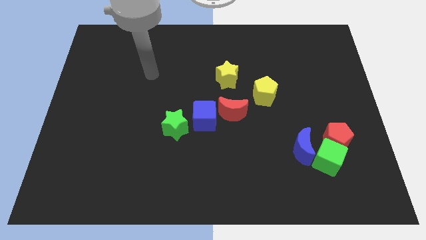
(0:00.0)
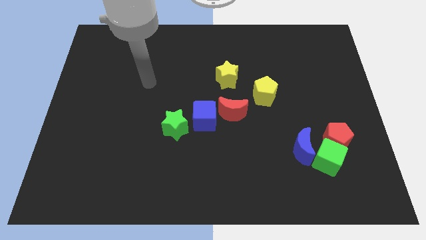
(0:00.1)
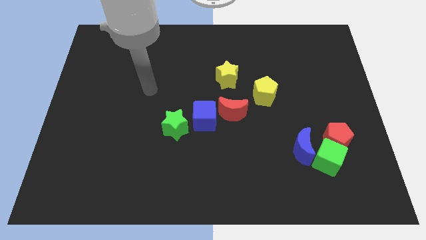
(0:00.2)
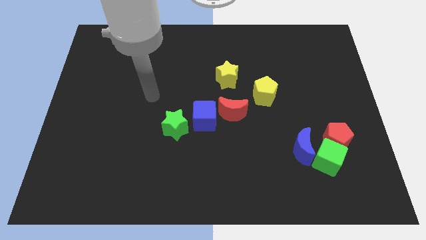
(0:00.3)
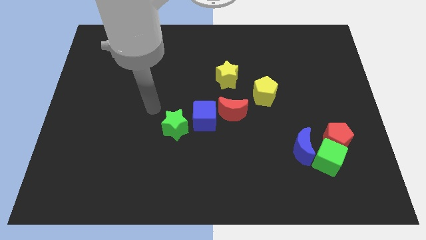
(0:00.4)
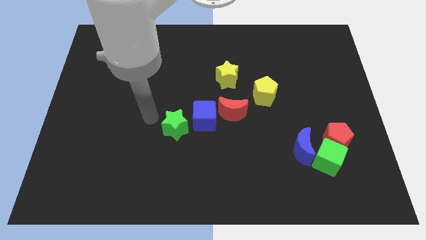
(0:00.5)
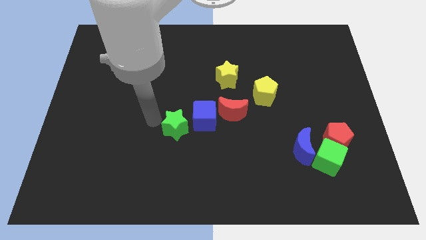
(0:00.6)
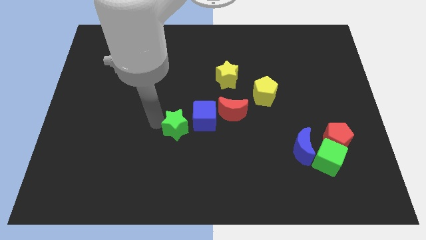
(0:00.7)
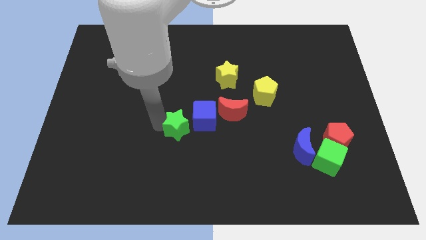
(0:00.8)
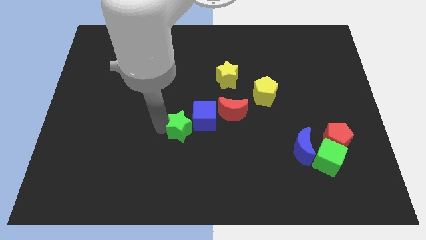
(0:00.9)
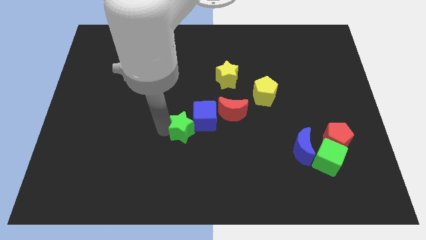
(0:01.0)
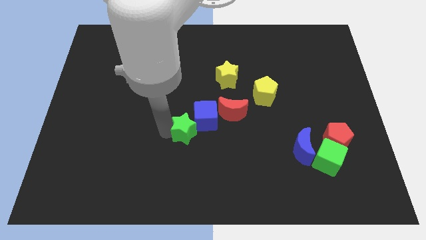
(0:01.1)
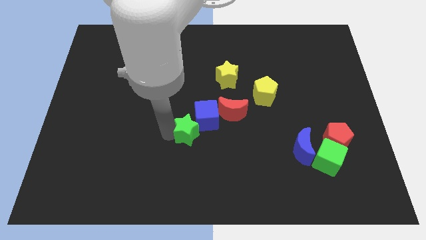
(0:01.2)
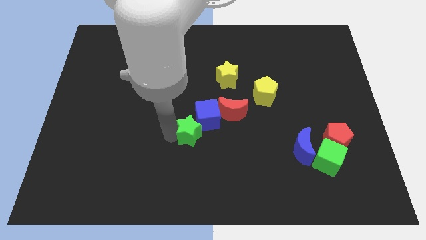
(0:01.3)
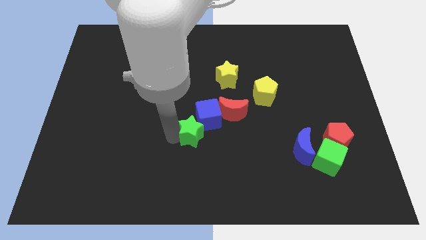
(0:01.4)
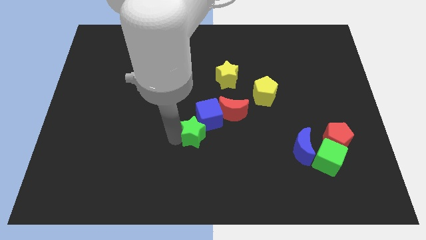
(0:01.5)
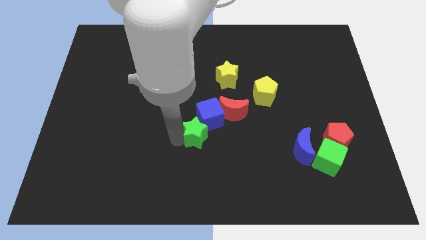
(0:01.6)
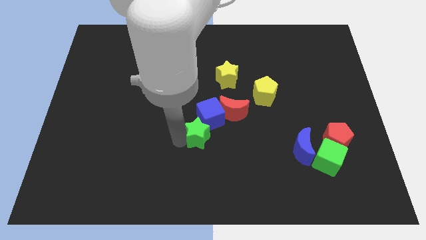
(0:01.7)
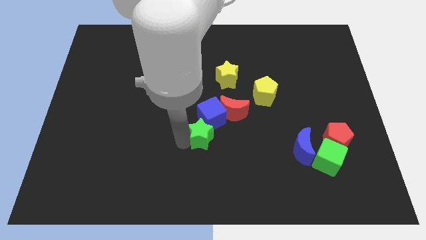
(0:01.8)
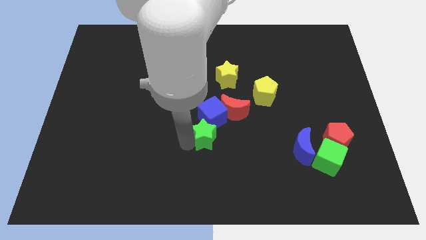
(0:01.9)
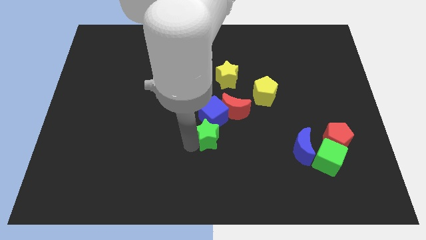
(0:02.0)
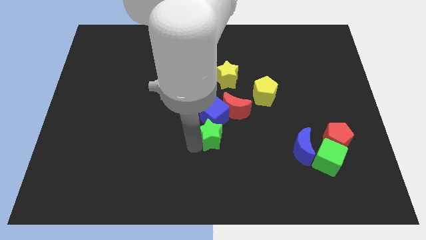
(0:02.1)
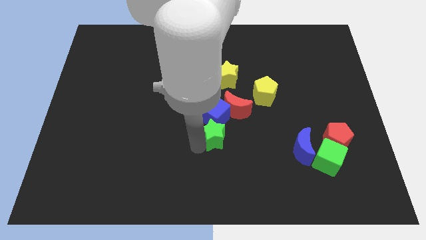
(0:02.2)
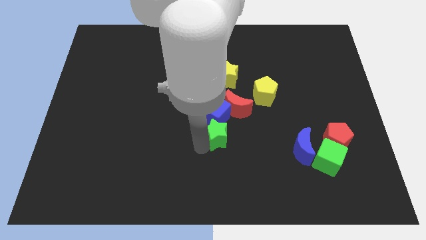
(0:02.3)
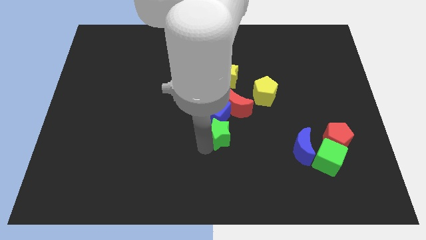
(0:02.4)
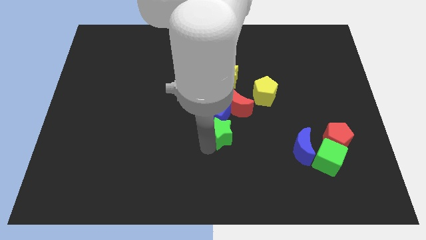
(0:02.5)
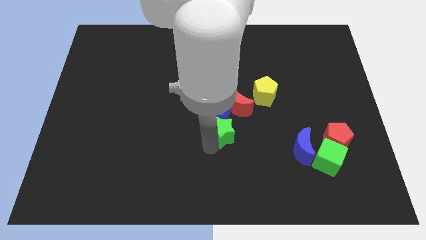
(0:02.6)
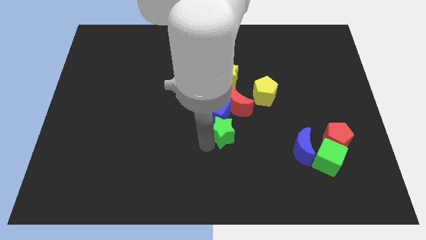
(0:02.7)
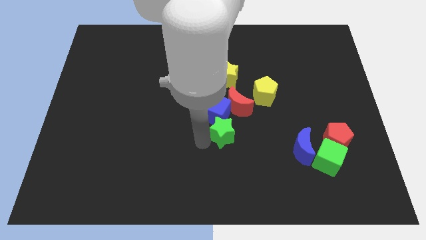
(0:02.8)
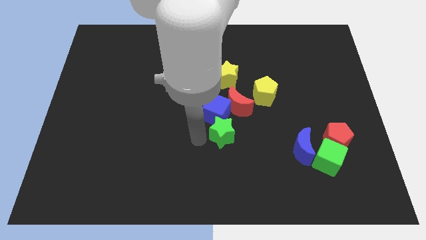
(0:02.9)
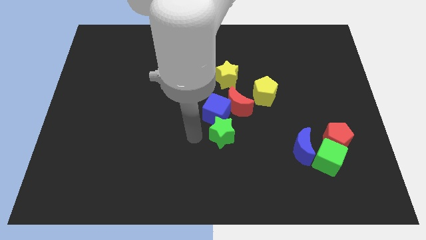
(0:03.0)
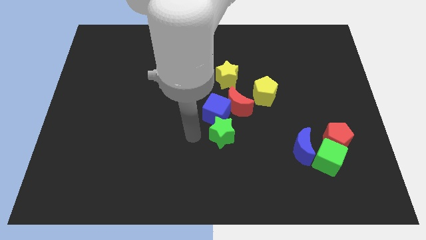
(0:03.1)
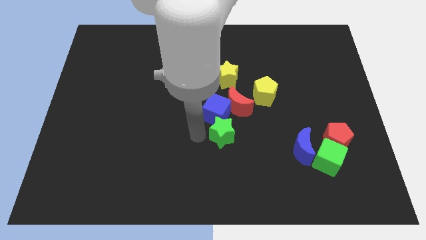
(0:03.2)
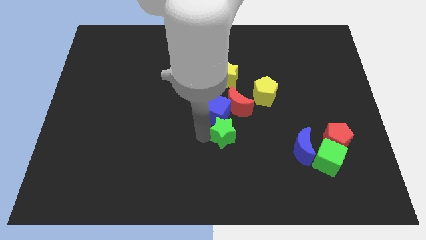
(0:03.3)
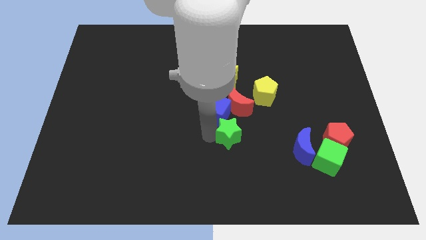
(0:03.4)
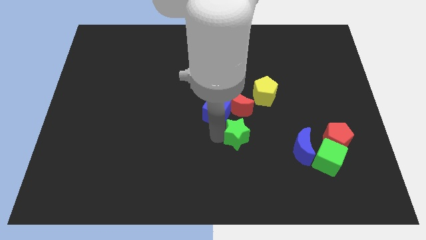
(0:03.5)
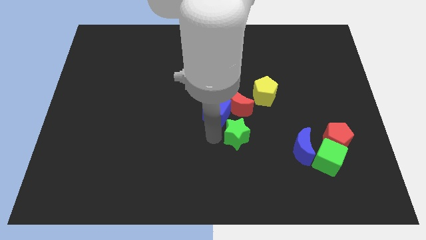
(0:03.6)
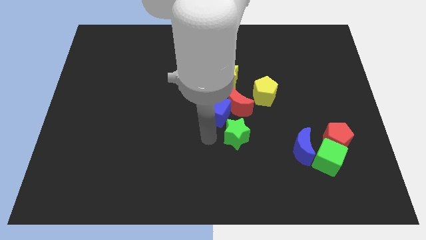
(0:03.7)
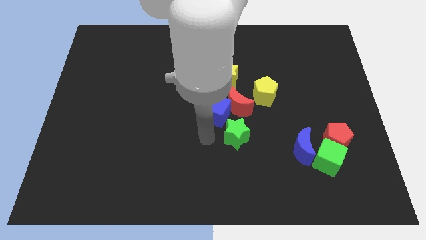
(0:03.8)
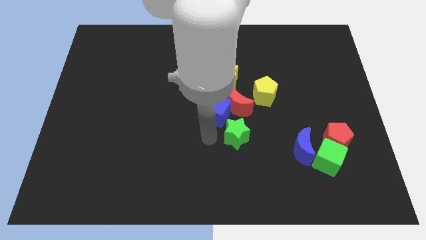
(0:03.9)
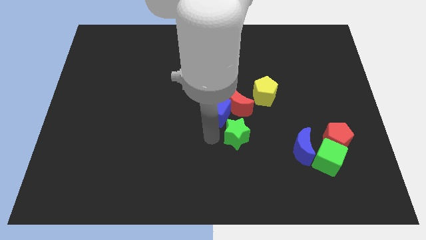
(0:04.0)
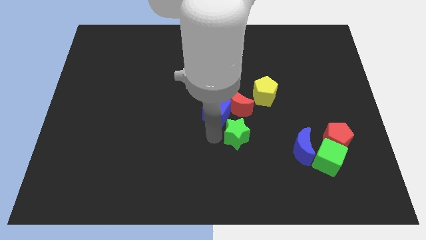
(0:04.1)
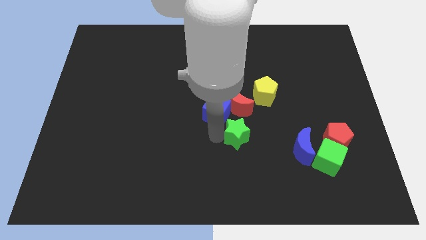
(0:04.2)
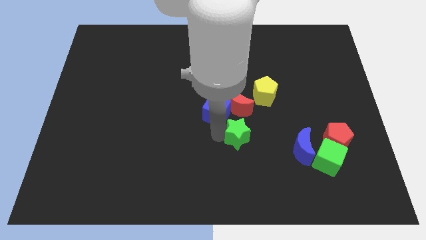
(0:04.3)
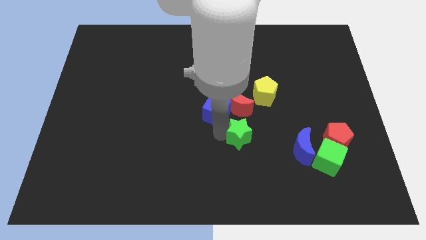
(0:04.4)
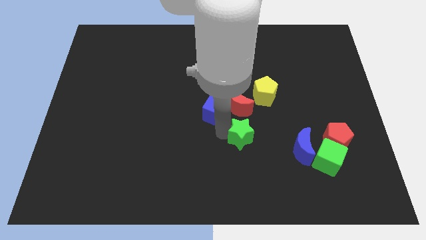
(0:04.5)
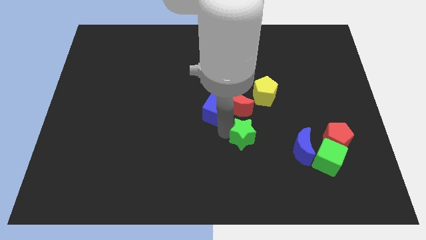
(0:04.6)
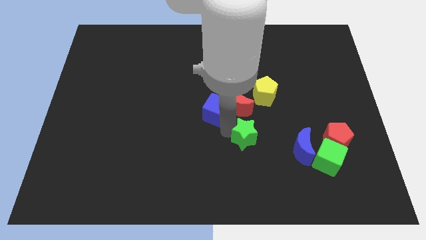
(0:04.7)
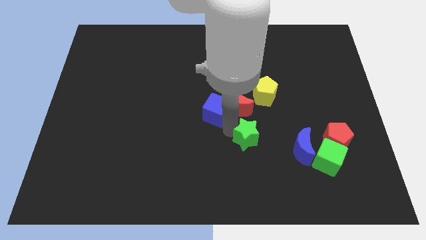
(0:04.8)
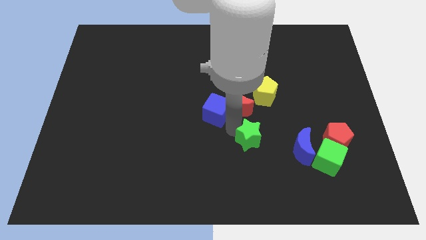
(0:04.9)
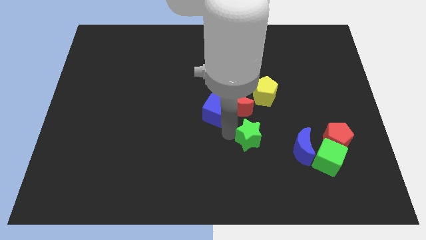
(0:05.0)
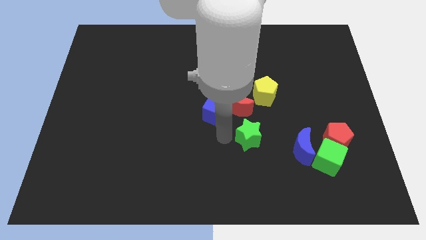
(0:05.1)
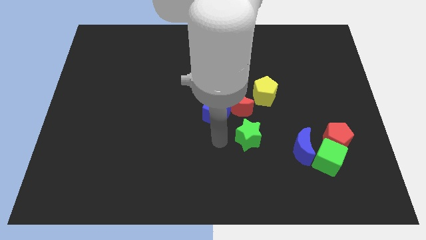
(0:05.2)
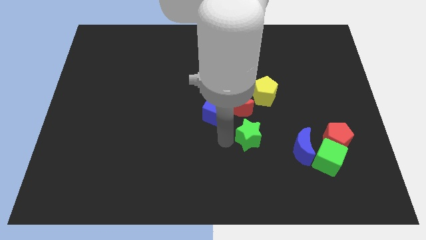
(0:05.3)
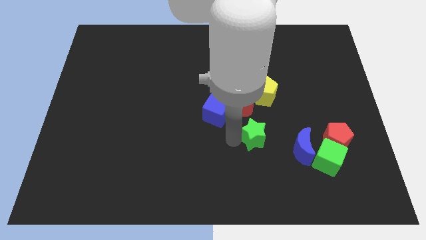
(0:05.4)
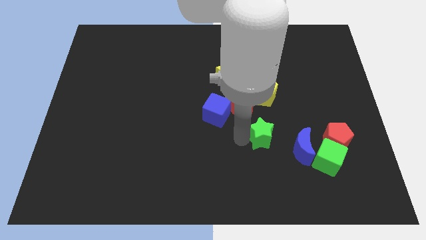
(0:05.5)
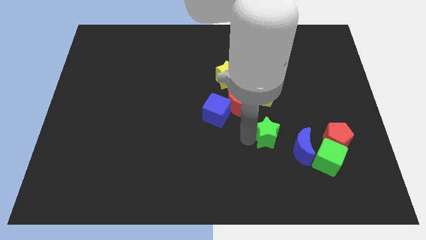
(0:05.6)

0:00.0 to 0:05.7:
move the green star to the right

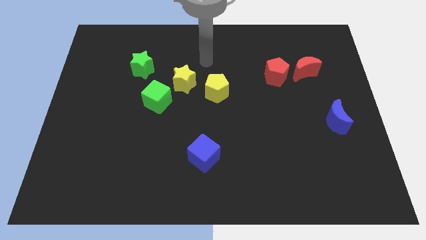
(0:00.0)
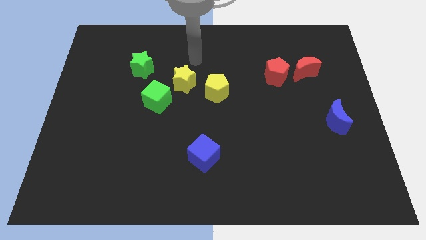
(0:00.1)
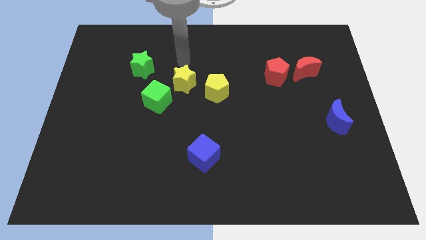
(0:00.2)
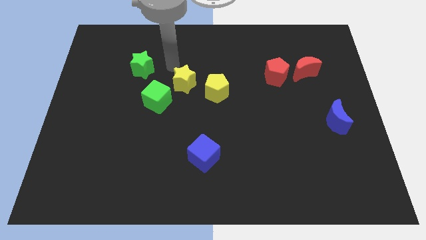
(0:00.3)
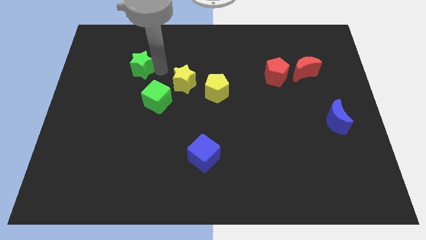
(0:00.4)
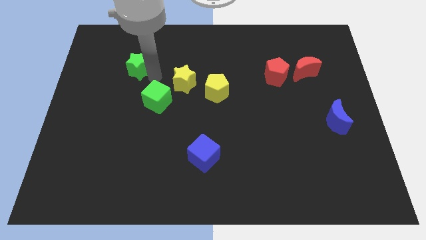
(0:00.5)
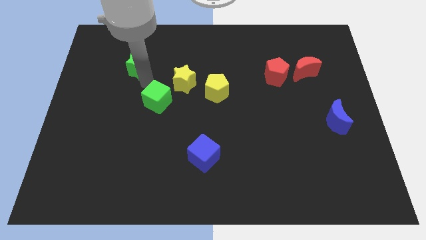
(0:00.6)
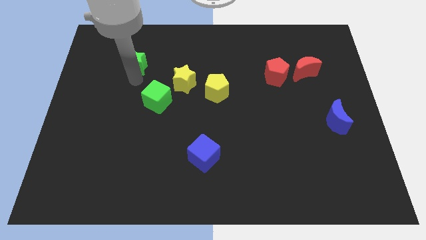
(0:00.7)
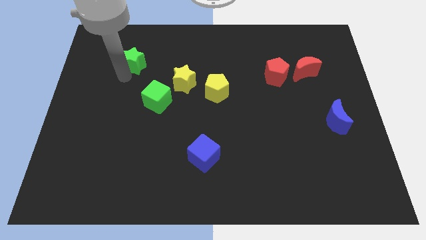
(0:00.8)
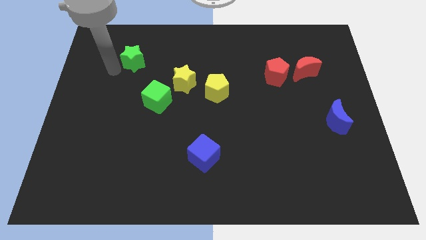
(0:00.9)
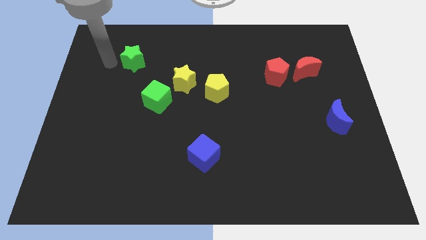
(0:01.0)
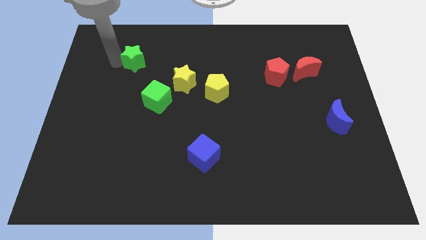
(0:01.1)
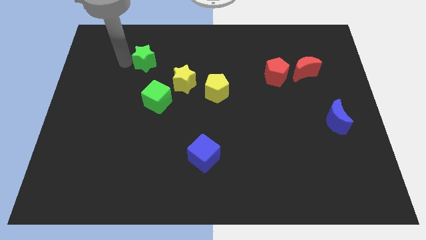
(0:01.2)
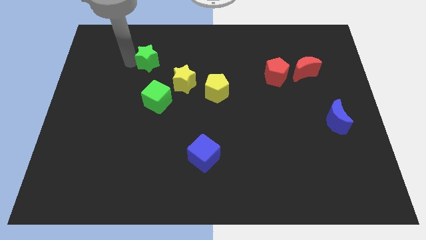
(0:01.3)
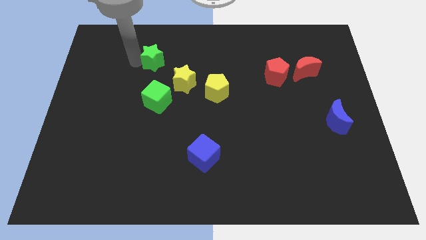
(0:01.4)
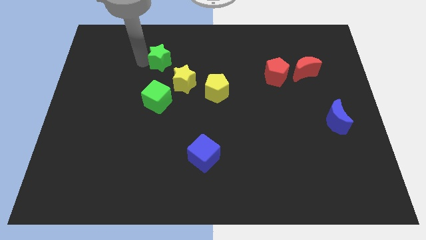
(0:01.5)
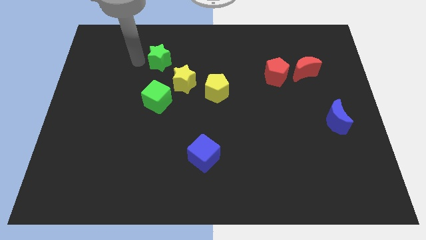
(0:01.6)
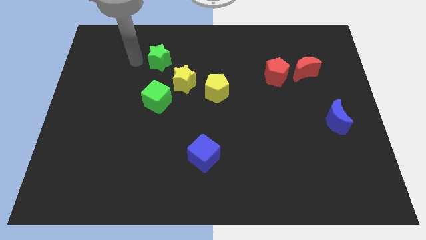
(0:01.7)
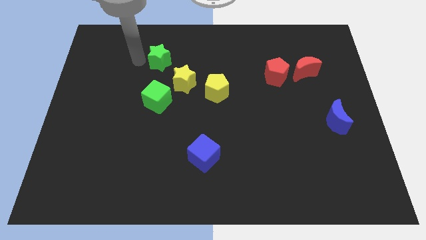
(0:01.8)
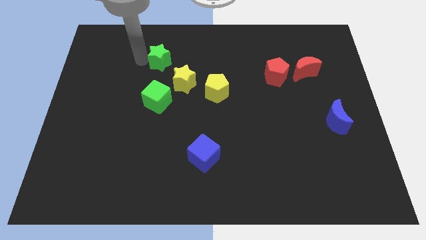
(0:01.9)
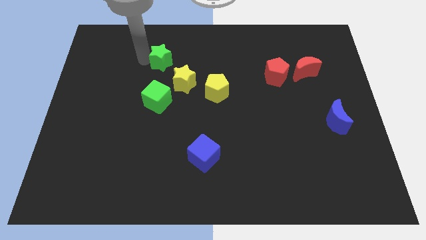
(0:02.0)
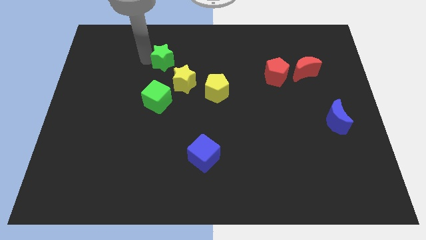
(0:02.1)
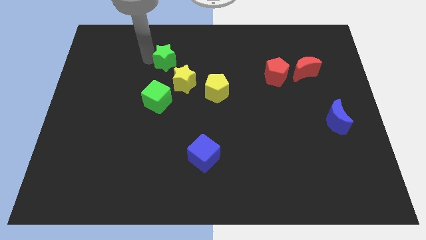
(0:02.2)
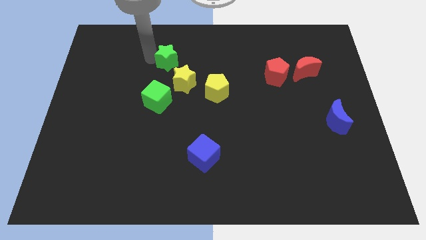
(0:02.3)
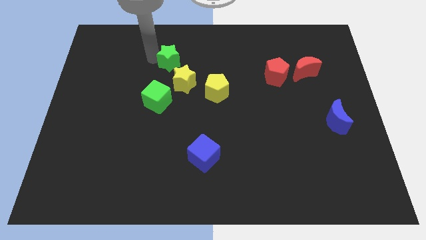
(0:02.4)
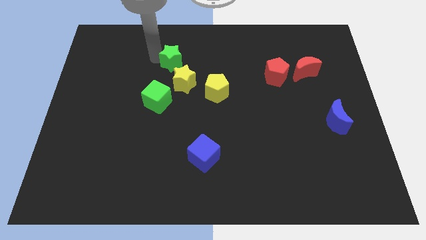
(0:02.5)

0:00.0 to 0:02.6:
move the green star to the right a little
